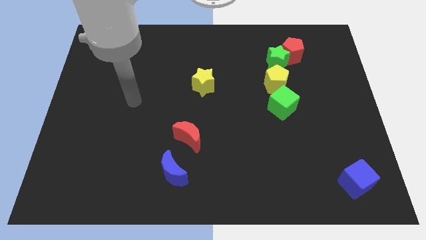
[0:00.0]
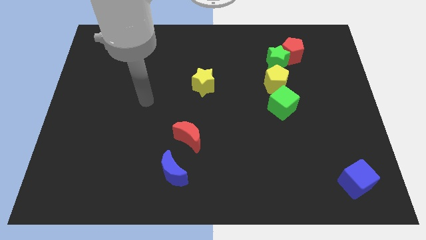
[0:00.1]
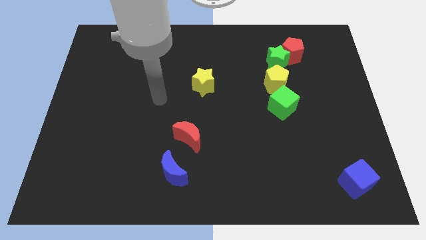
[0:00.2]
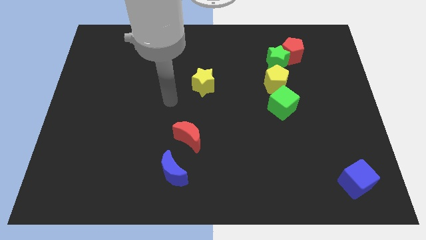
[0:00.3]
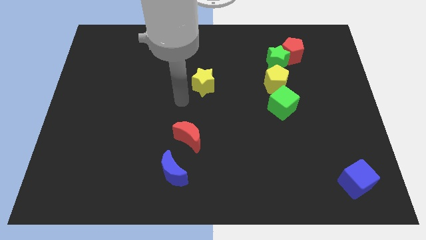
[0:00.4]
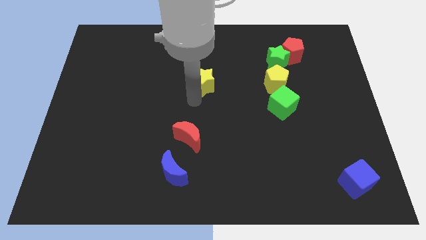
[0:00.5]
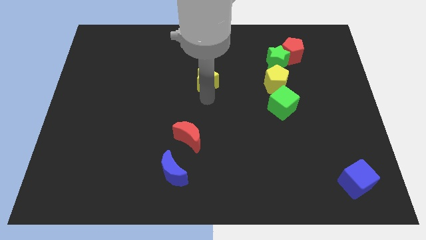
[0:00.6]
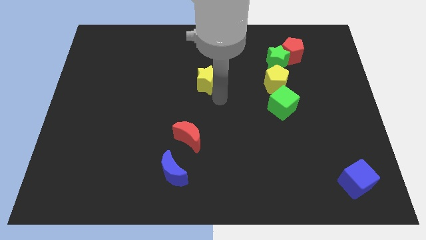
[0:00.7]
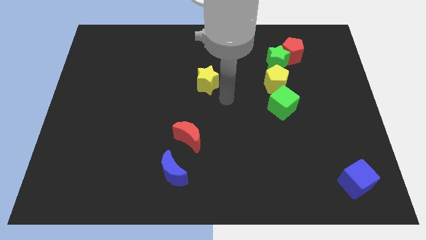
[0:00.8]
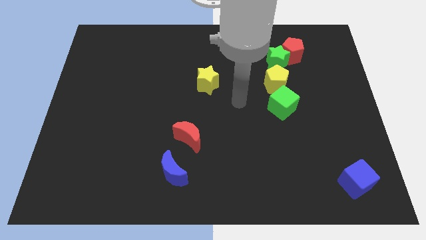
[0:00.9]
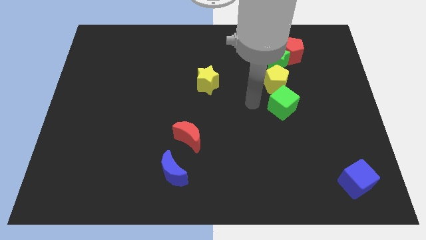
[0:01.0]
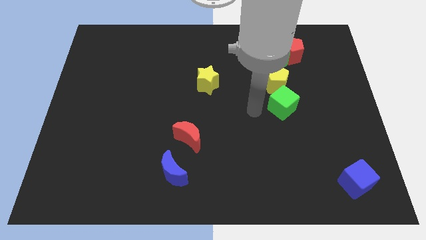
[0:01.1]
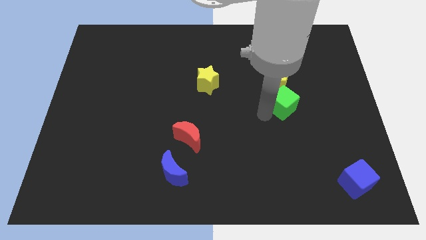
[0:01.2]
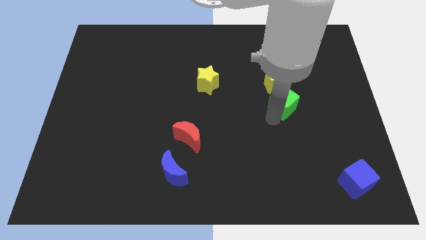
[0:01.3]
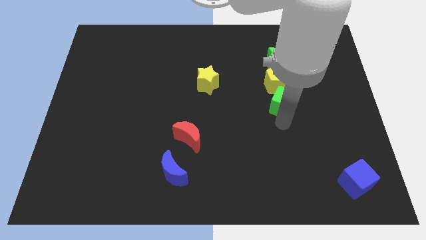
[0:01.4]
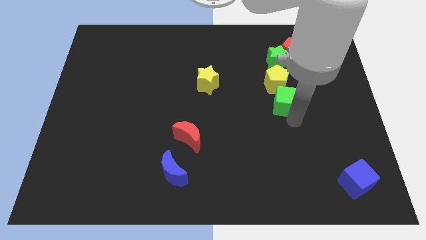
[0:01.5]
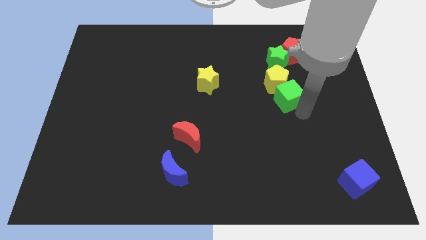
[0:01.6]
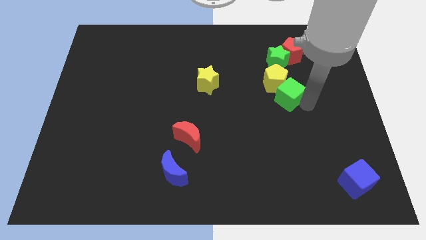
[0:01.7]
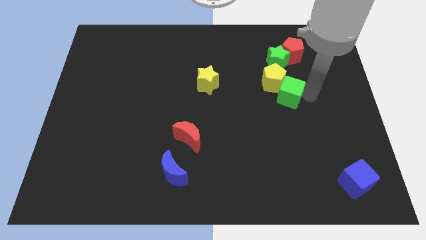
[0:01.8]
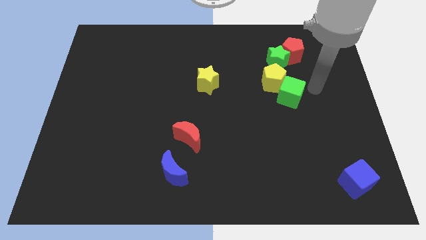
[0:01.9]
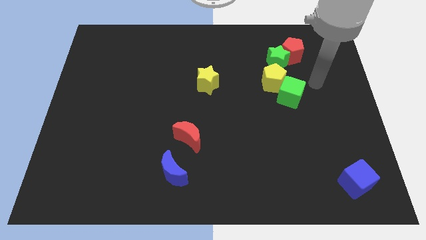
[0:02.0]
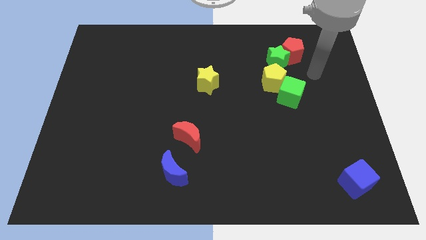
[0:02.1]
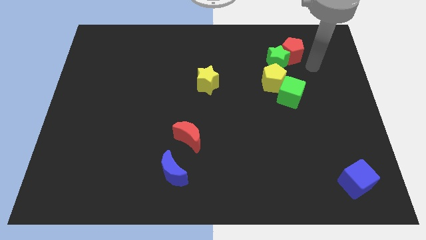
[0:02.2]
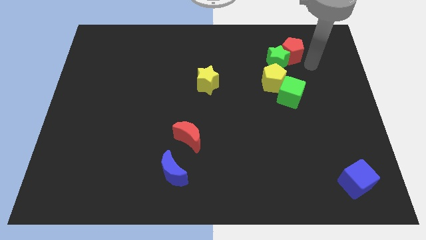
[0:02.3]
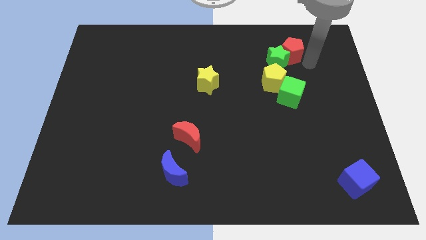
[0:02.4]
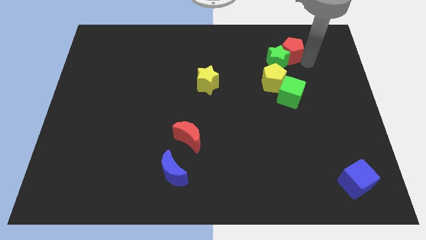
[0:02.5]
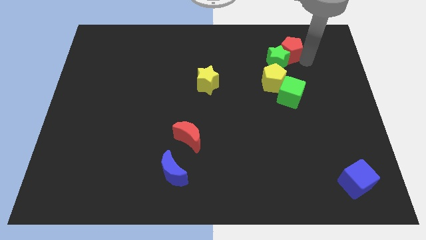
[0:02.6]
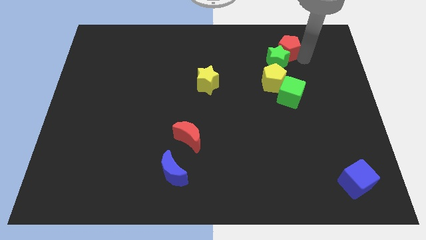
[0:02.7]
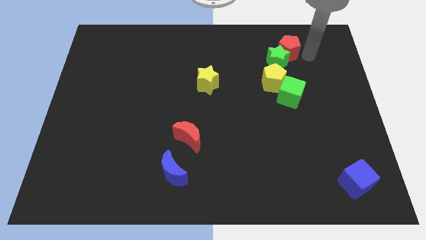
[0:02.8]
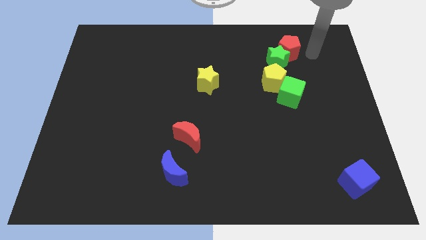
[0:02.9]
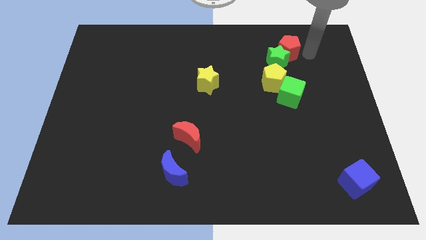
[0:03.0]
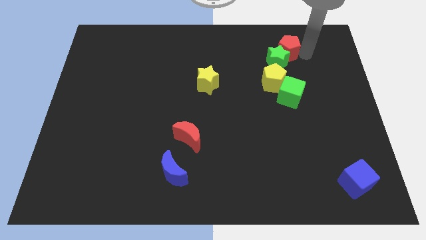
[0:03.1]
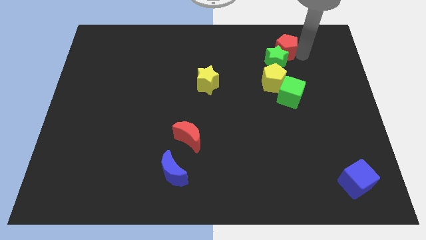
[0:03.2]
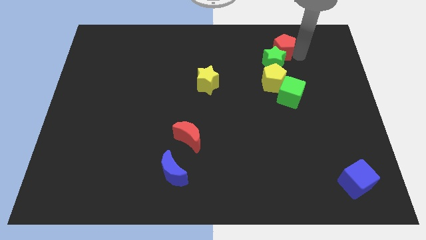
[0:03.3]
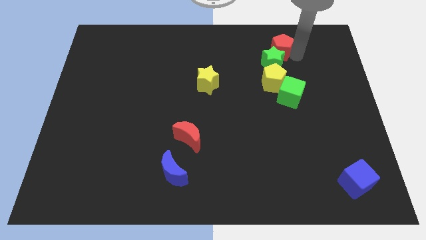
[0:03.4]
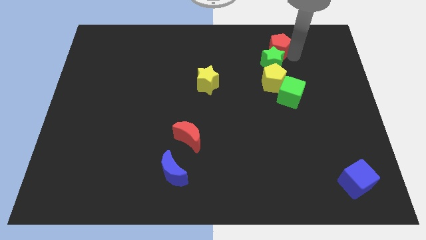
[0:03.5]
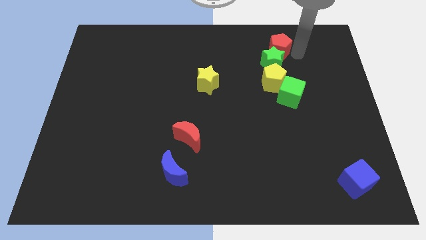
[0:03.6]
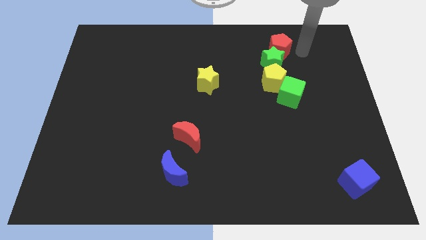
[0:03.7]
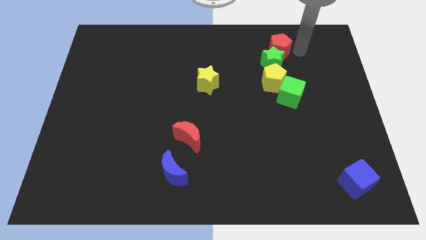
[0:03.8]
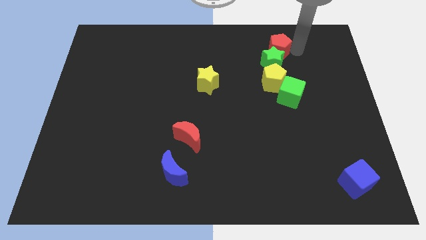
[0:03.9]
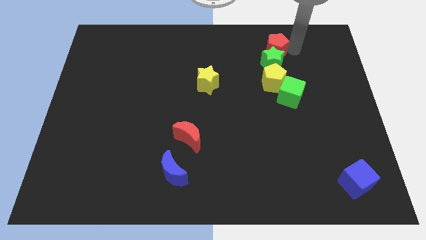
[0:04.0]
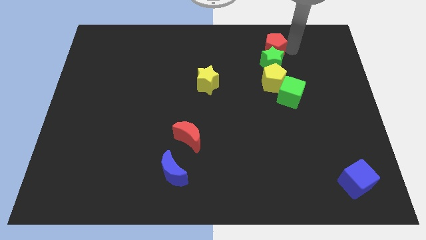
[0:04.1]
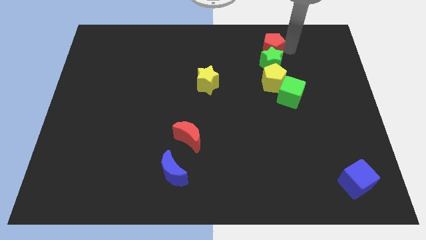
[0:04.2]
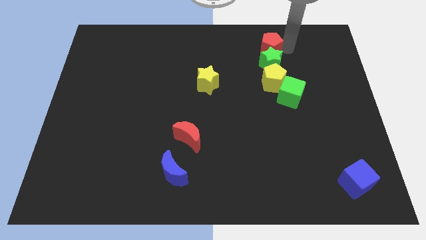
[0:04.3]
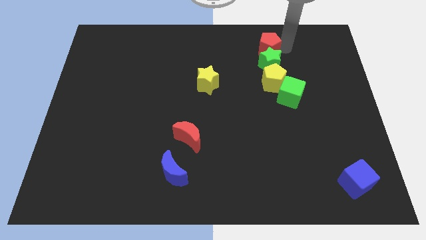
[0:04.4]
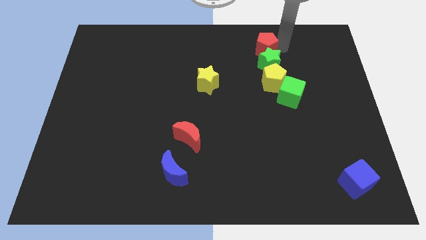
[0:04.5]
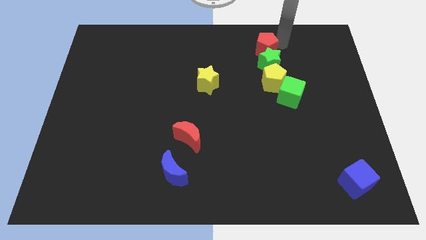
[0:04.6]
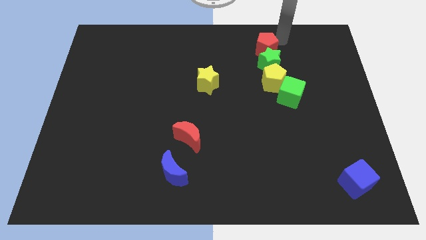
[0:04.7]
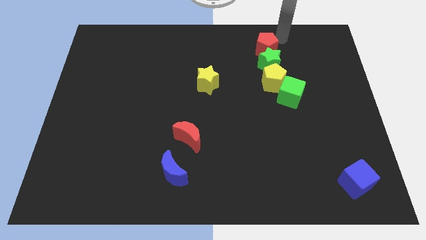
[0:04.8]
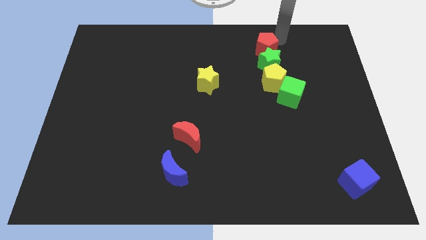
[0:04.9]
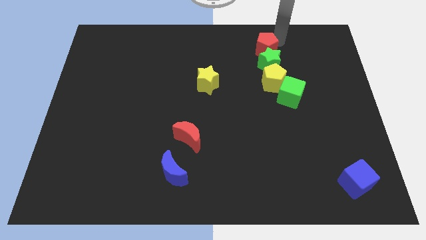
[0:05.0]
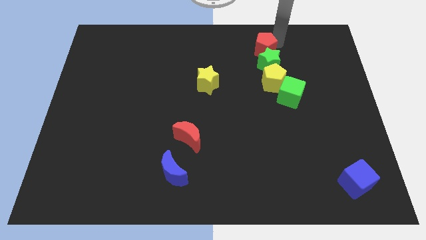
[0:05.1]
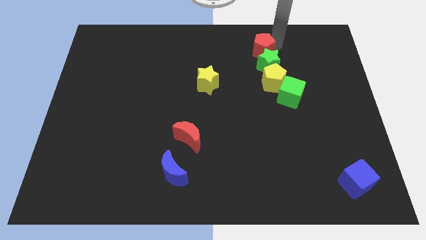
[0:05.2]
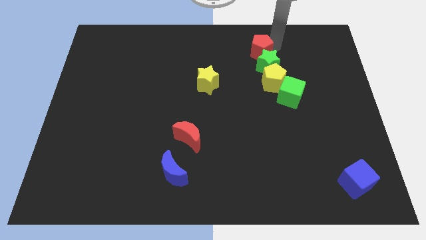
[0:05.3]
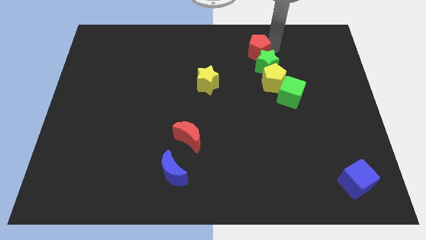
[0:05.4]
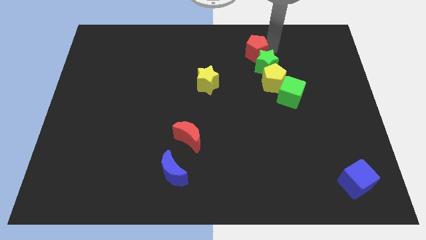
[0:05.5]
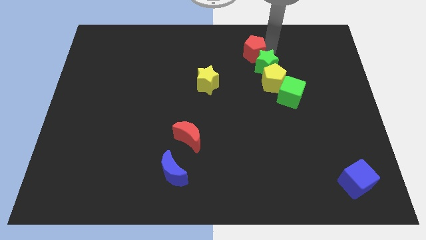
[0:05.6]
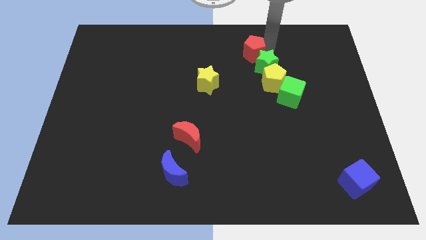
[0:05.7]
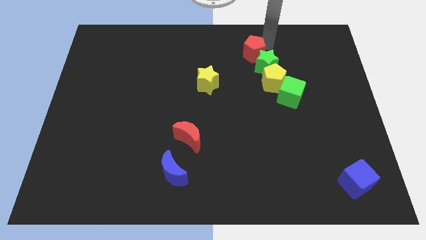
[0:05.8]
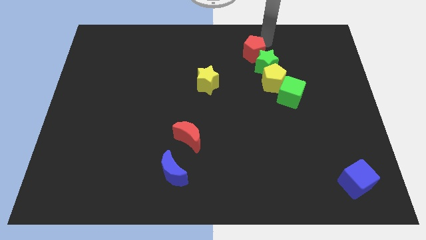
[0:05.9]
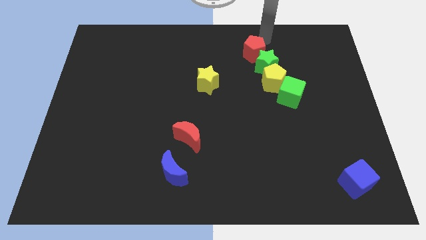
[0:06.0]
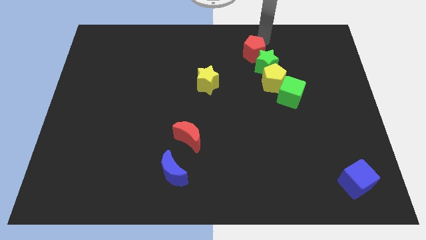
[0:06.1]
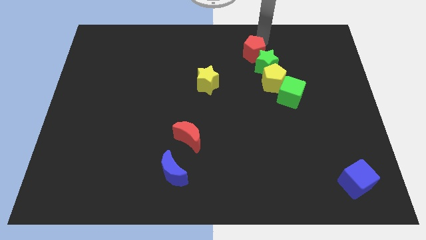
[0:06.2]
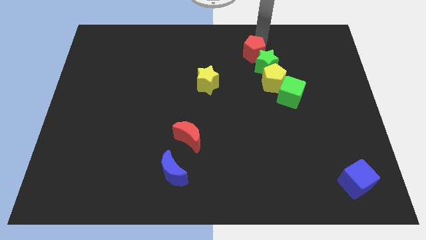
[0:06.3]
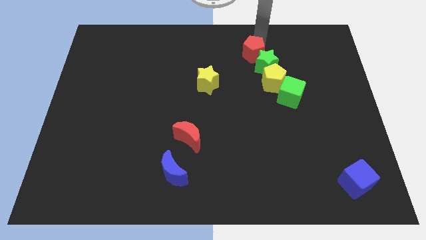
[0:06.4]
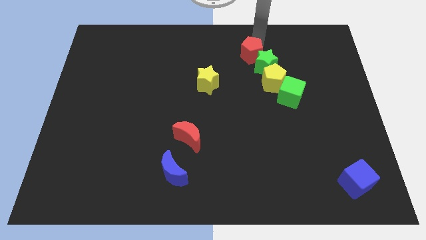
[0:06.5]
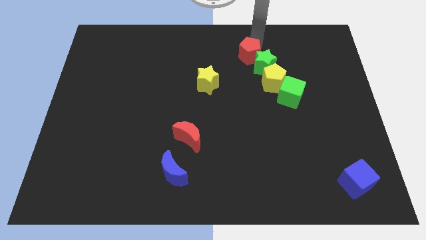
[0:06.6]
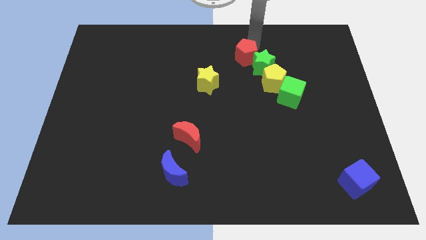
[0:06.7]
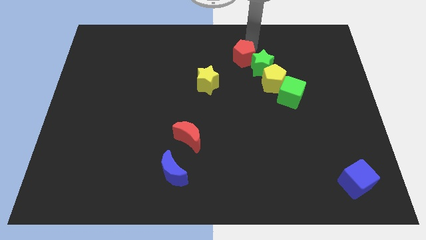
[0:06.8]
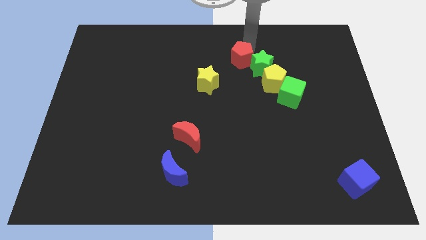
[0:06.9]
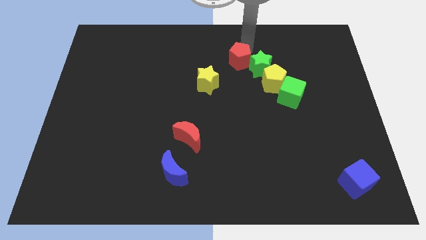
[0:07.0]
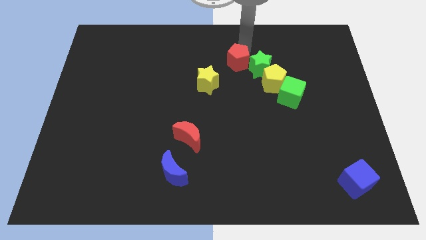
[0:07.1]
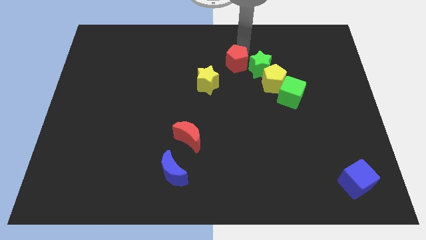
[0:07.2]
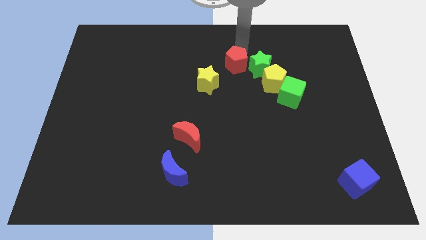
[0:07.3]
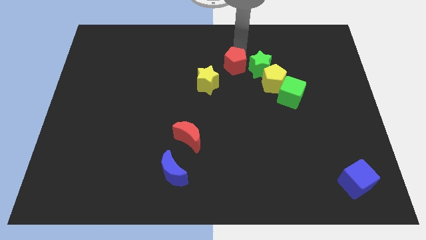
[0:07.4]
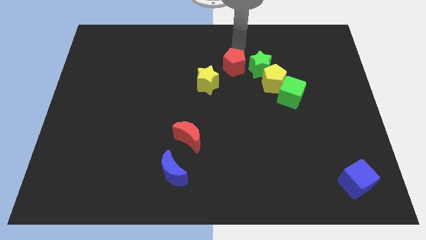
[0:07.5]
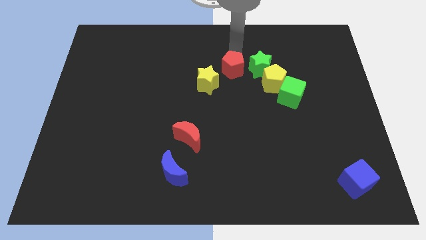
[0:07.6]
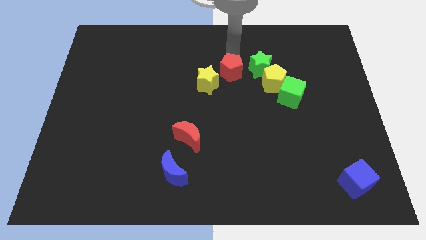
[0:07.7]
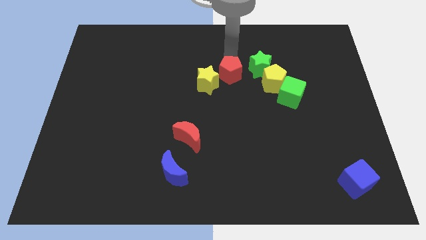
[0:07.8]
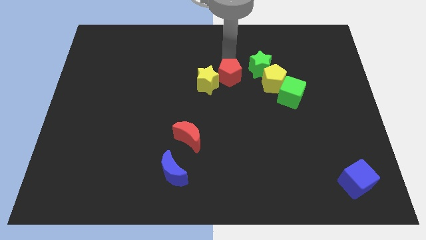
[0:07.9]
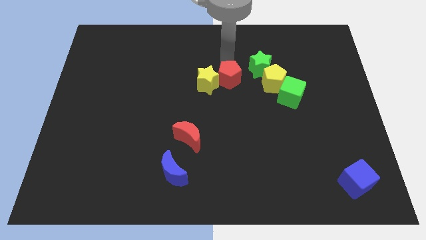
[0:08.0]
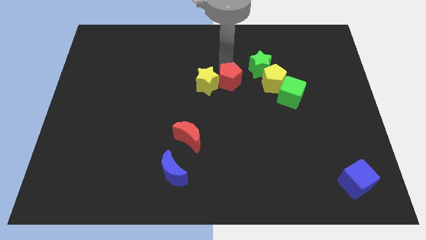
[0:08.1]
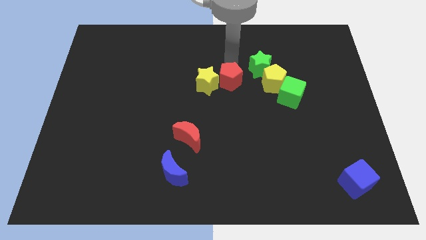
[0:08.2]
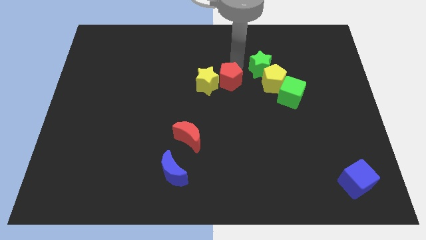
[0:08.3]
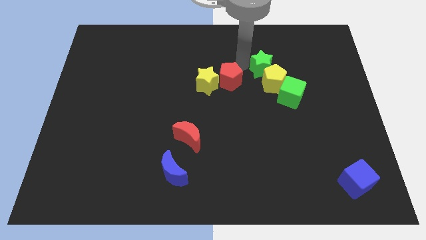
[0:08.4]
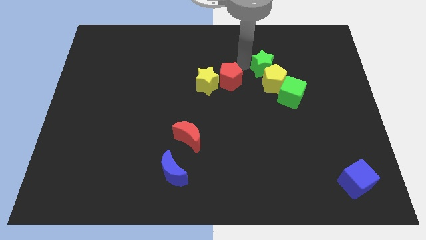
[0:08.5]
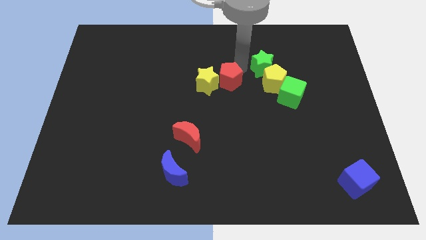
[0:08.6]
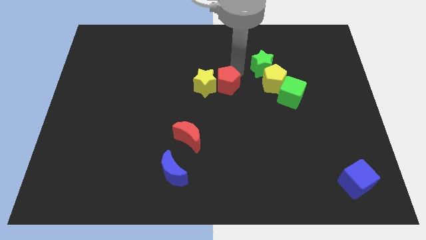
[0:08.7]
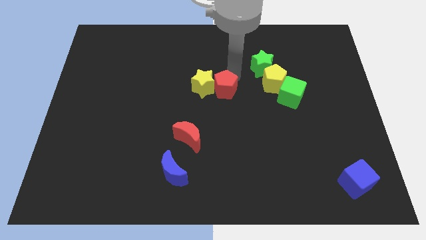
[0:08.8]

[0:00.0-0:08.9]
slide the red pentagon diagonally down and left
